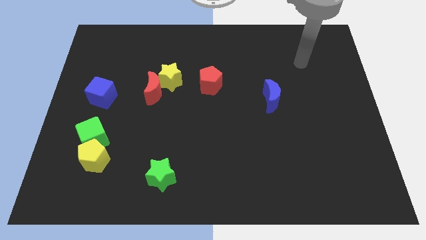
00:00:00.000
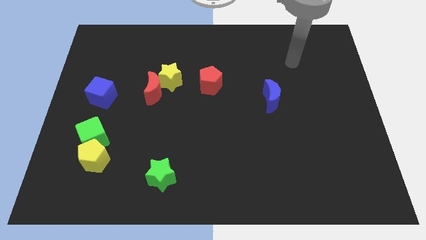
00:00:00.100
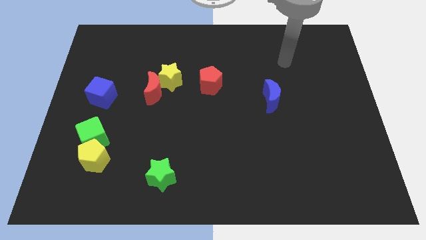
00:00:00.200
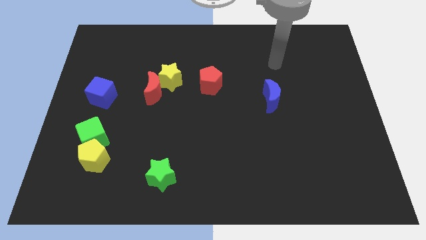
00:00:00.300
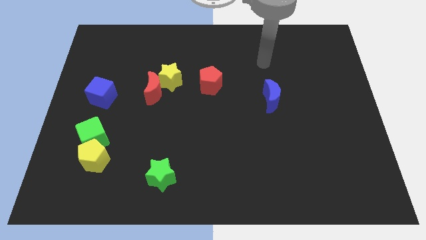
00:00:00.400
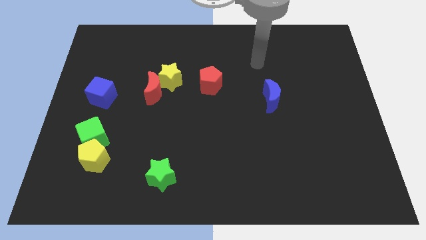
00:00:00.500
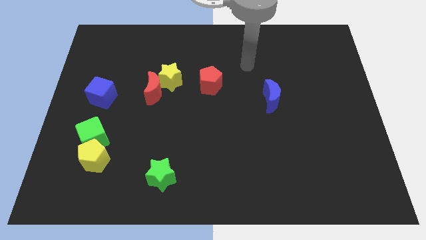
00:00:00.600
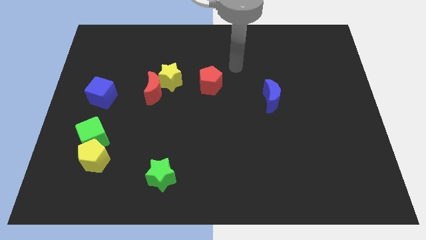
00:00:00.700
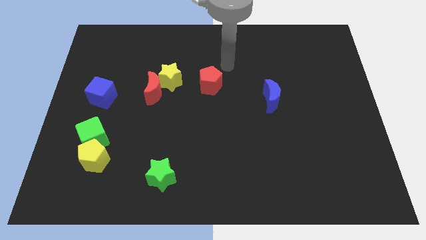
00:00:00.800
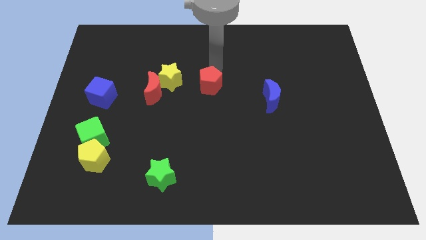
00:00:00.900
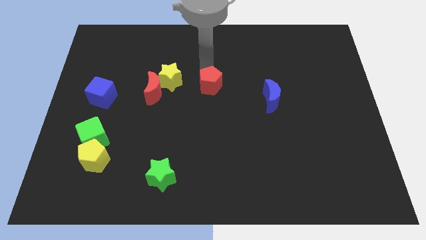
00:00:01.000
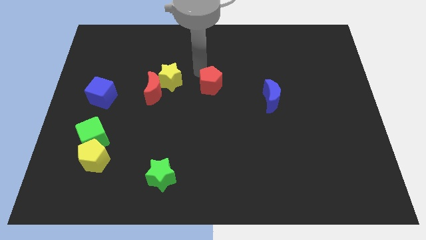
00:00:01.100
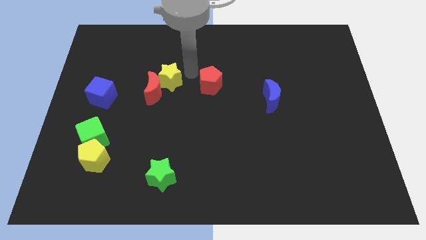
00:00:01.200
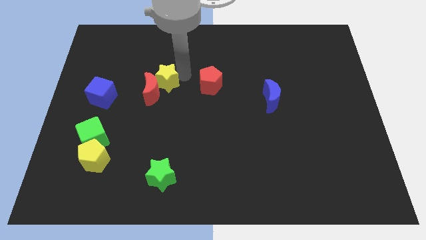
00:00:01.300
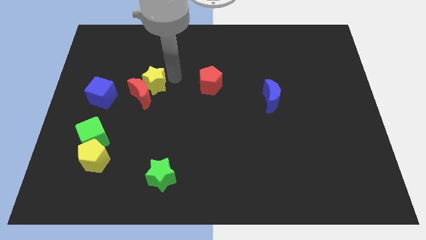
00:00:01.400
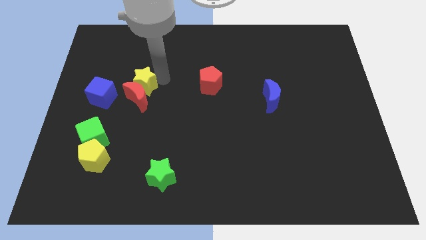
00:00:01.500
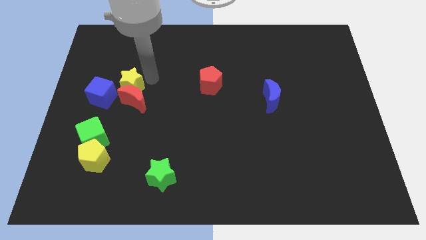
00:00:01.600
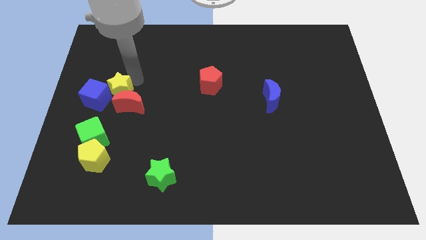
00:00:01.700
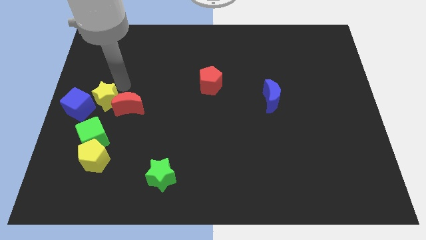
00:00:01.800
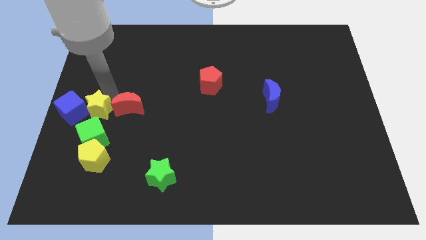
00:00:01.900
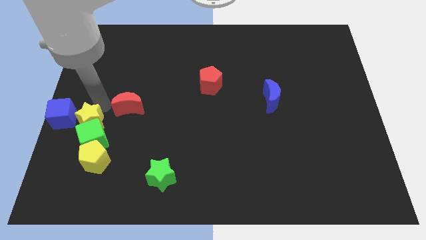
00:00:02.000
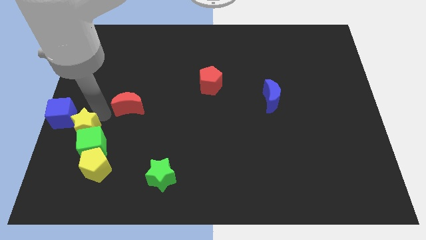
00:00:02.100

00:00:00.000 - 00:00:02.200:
pull the red moon apart from the yellow star

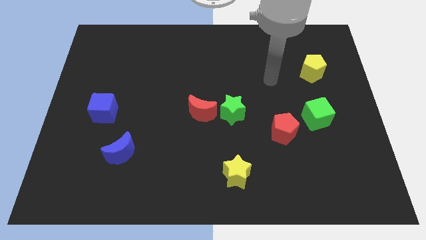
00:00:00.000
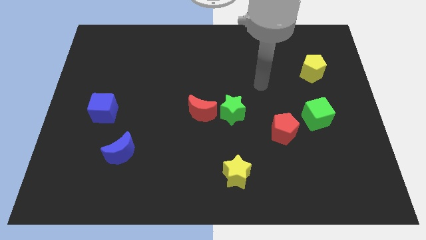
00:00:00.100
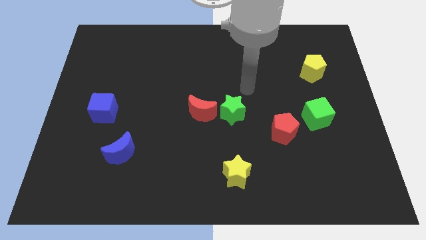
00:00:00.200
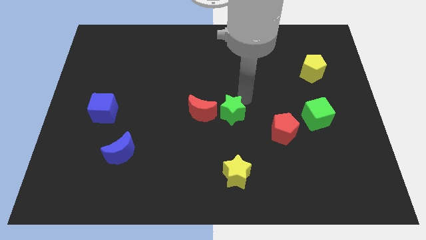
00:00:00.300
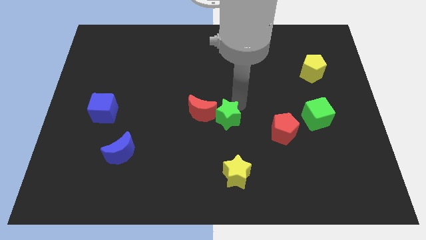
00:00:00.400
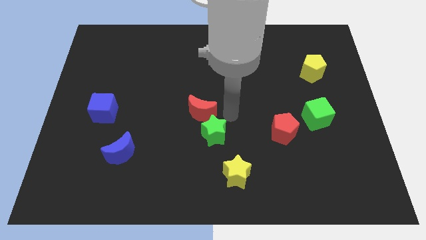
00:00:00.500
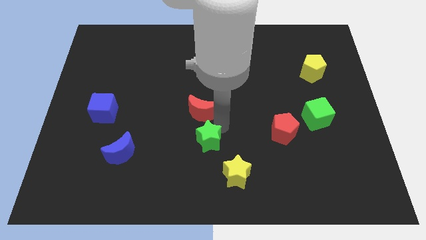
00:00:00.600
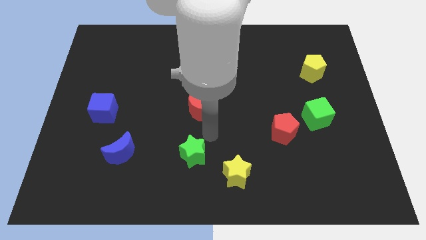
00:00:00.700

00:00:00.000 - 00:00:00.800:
separate the red moon from the green star

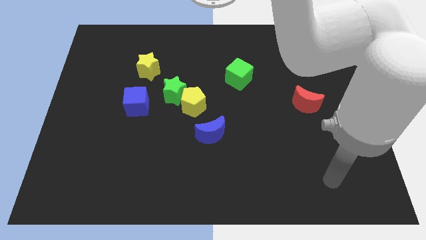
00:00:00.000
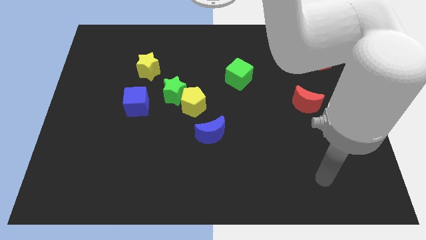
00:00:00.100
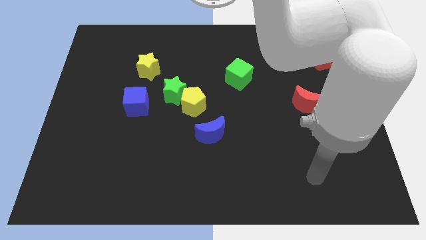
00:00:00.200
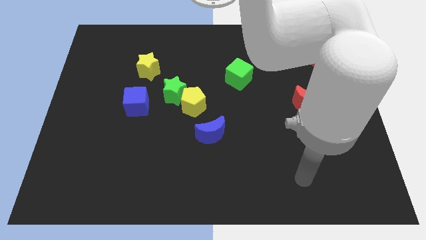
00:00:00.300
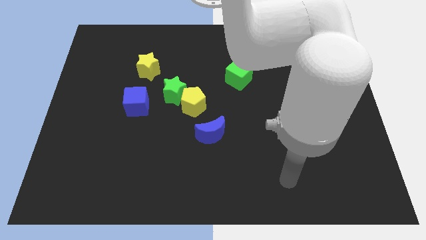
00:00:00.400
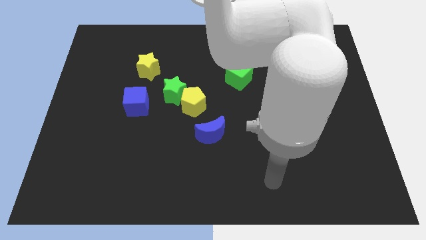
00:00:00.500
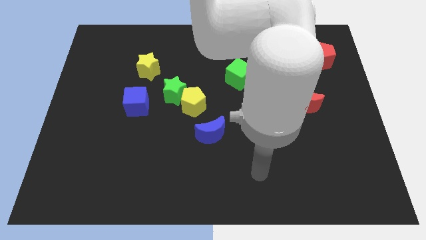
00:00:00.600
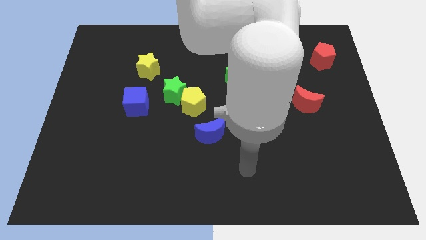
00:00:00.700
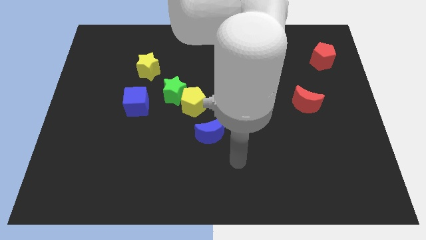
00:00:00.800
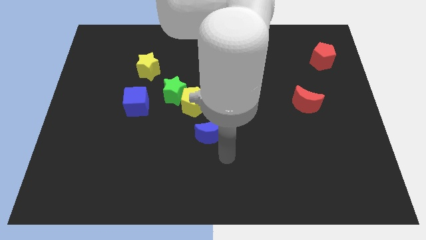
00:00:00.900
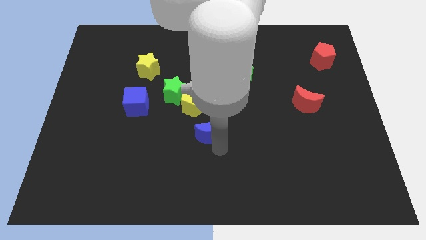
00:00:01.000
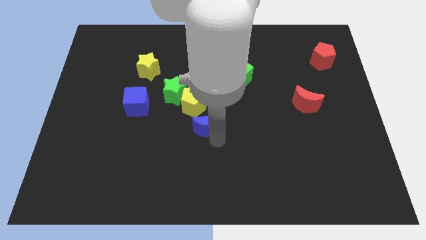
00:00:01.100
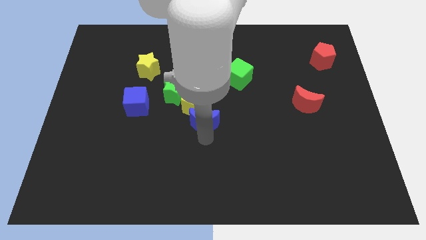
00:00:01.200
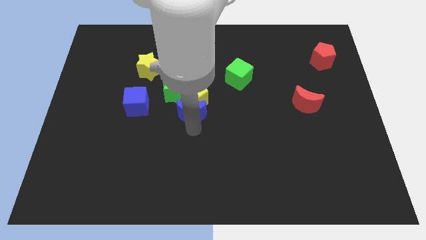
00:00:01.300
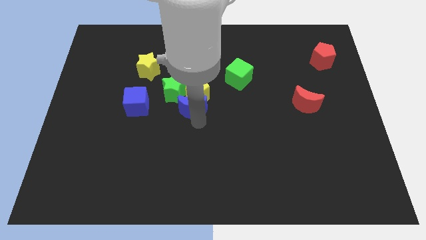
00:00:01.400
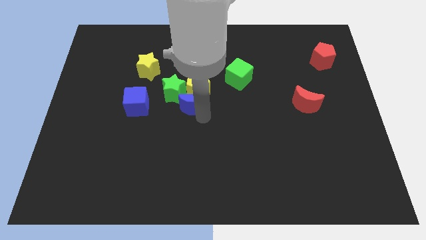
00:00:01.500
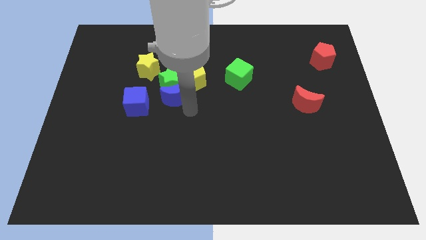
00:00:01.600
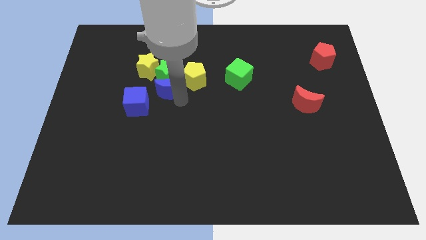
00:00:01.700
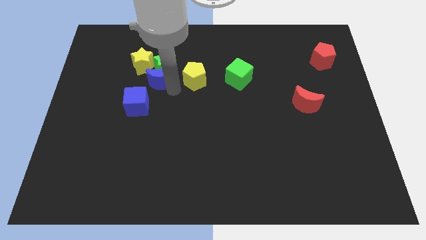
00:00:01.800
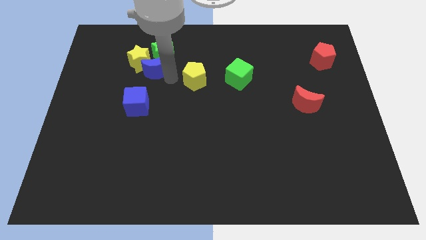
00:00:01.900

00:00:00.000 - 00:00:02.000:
pull the yellow pentagon apart from the green star and blue moon

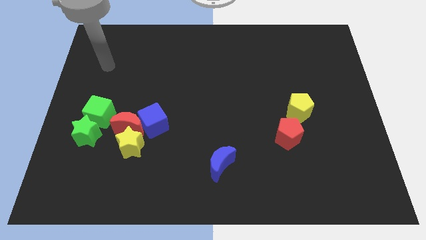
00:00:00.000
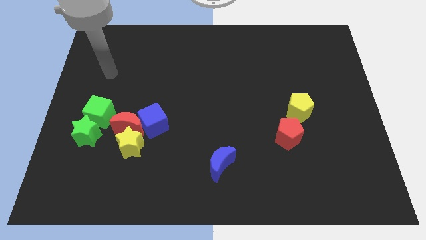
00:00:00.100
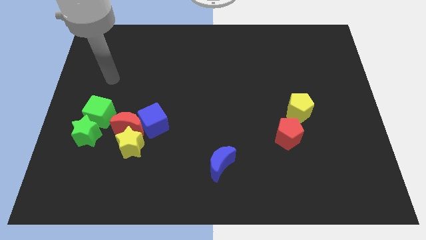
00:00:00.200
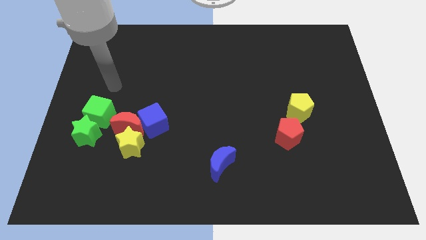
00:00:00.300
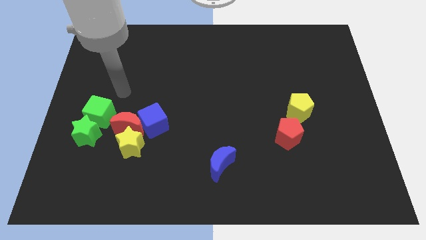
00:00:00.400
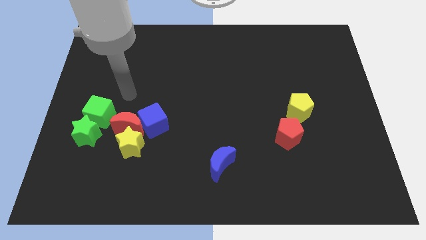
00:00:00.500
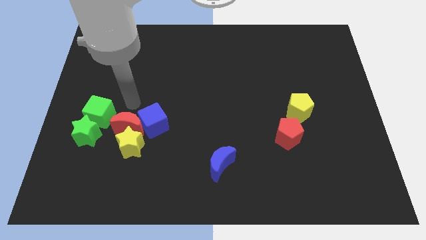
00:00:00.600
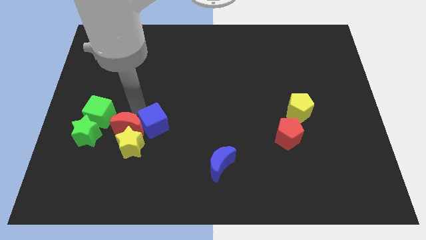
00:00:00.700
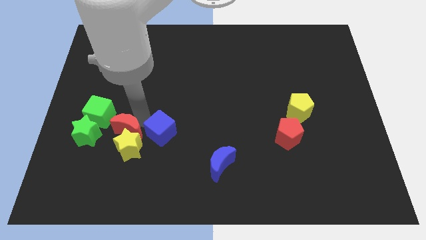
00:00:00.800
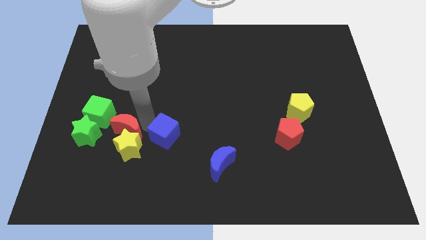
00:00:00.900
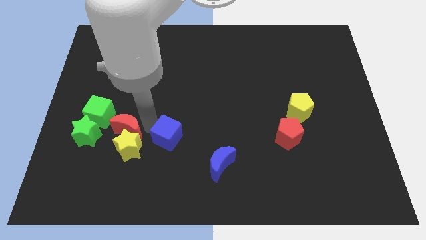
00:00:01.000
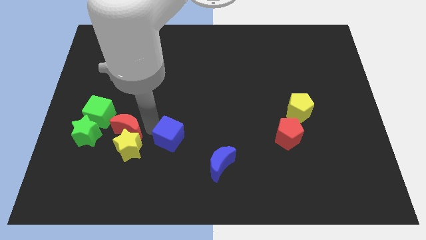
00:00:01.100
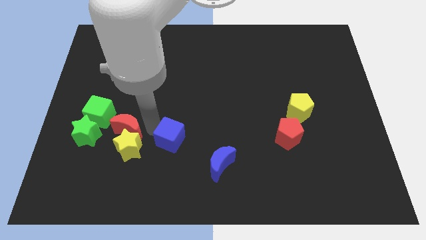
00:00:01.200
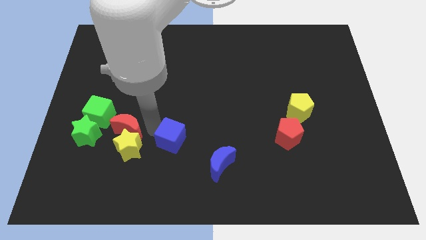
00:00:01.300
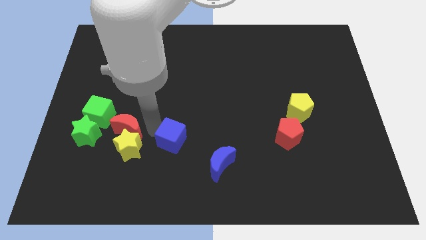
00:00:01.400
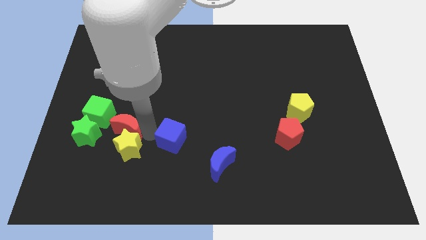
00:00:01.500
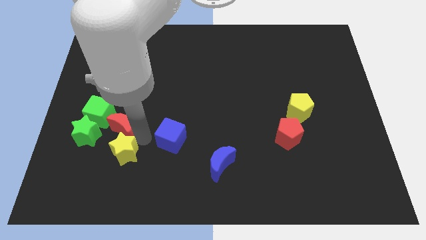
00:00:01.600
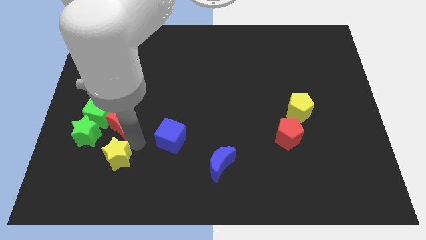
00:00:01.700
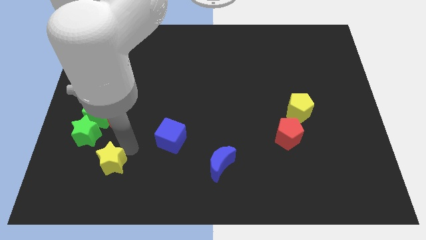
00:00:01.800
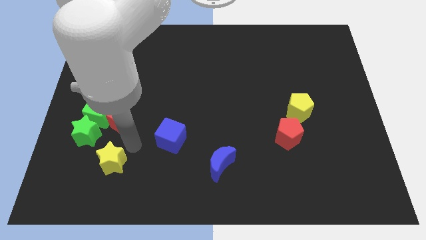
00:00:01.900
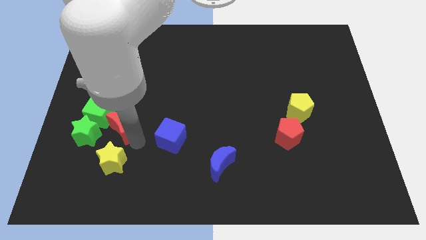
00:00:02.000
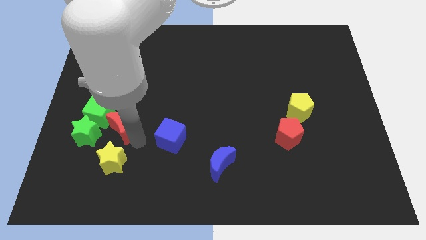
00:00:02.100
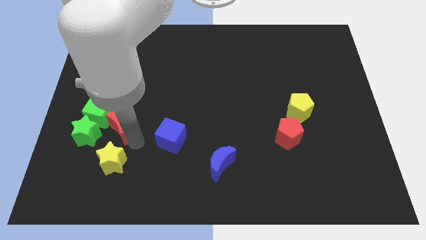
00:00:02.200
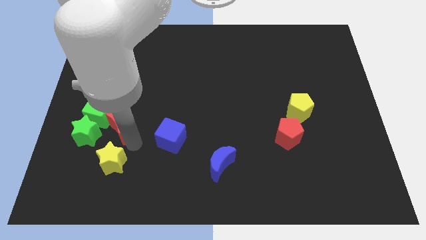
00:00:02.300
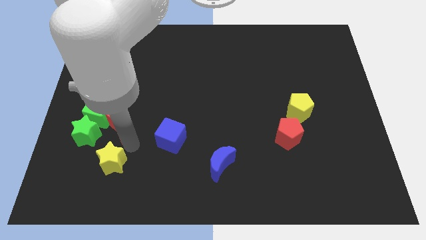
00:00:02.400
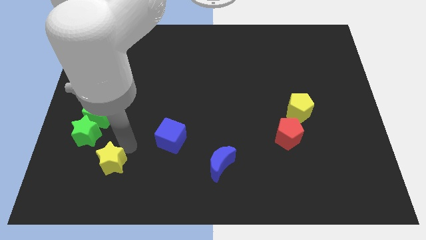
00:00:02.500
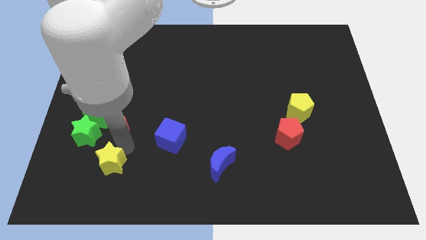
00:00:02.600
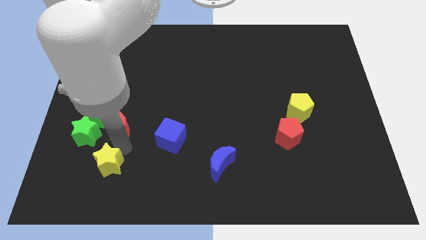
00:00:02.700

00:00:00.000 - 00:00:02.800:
pull the yellow star apart from the red moon and blue cube

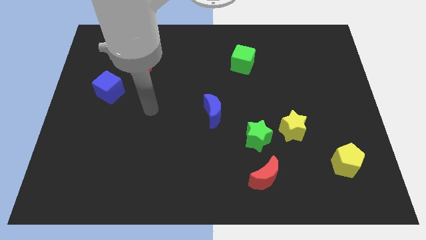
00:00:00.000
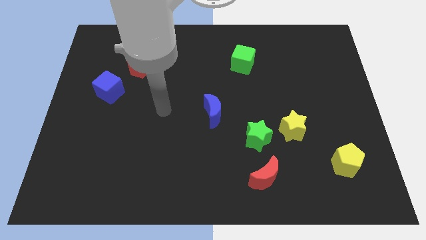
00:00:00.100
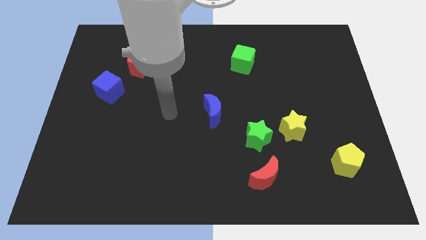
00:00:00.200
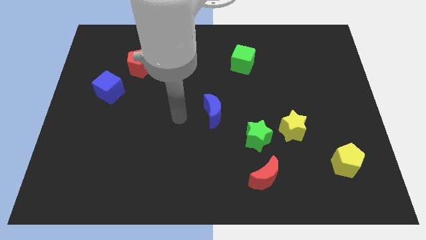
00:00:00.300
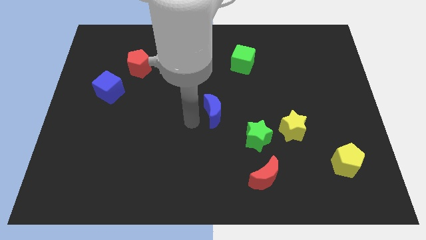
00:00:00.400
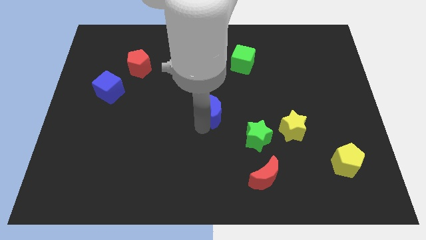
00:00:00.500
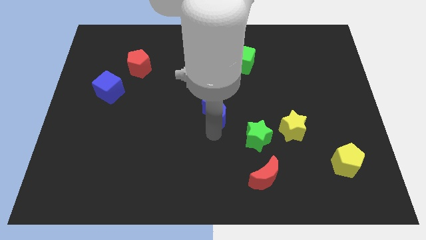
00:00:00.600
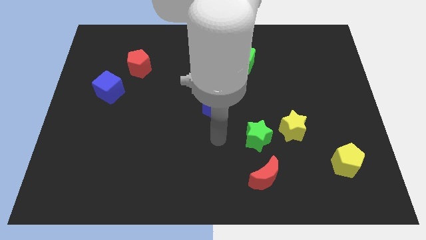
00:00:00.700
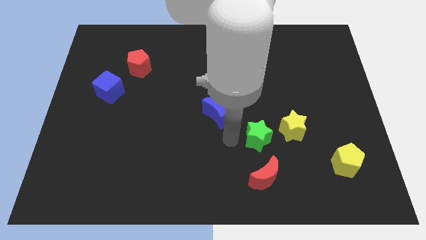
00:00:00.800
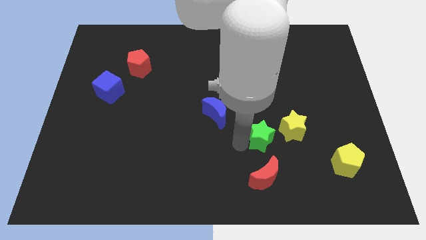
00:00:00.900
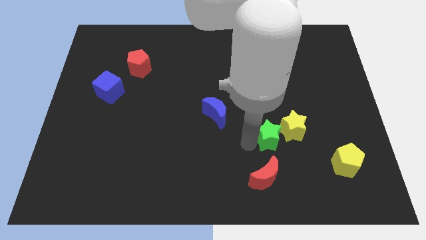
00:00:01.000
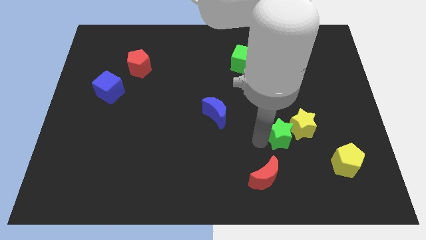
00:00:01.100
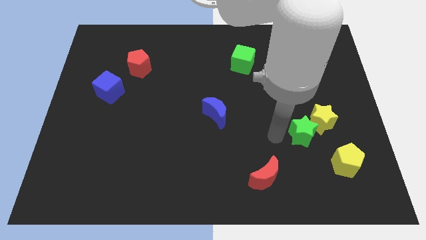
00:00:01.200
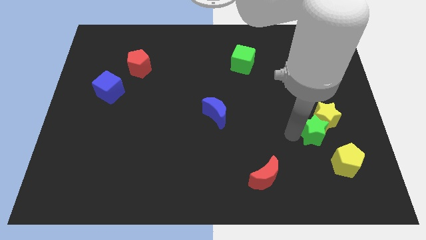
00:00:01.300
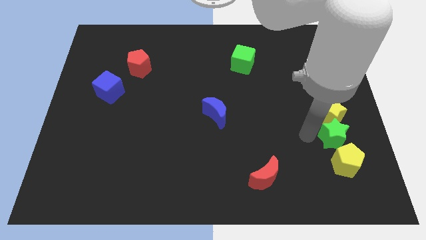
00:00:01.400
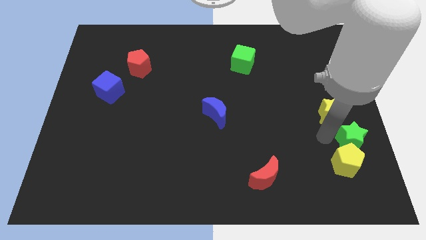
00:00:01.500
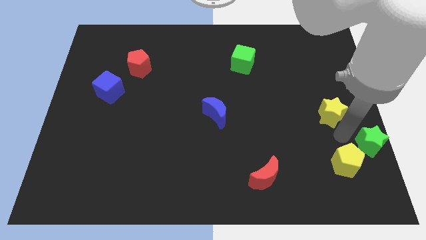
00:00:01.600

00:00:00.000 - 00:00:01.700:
pull the yellow star apart from the green star
